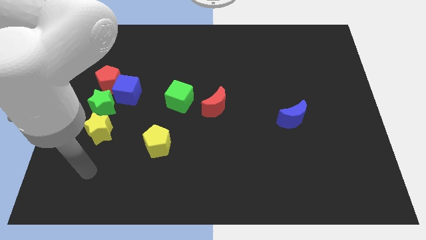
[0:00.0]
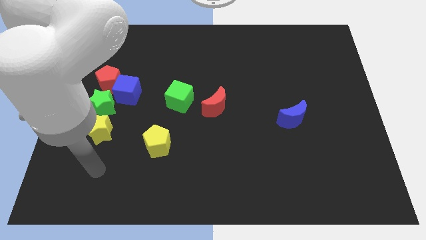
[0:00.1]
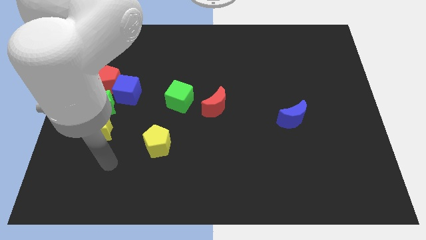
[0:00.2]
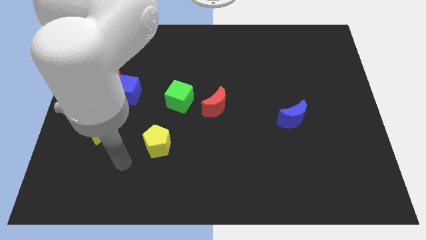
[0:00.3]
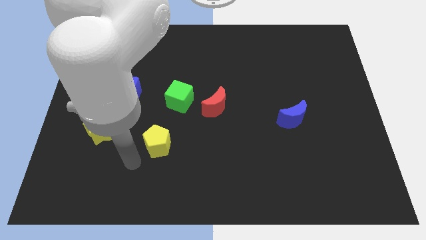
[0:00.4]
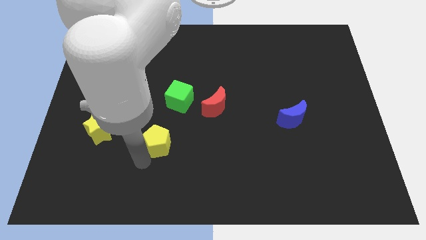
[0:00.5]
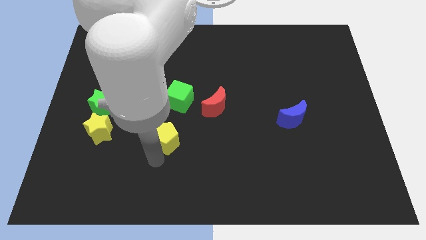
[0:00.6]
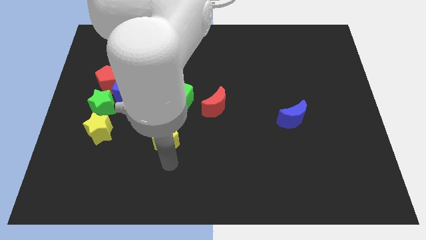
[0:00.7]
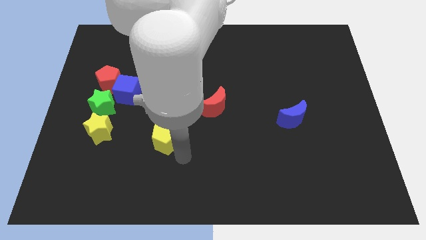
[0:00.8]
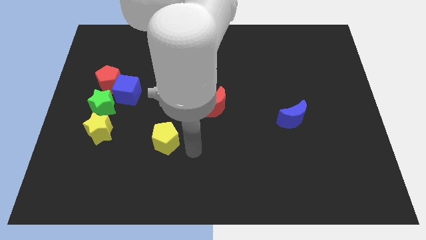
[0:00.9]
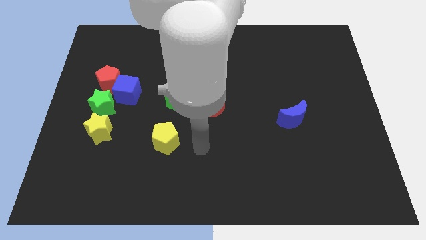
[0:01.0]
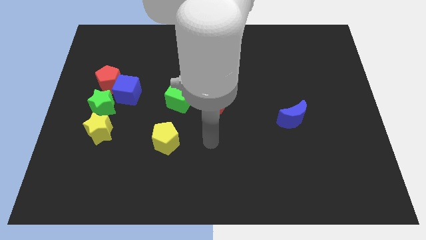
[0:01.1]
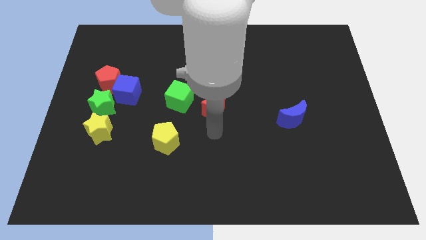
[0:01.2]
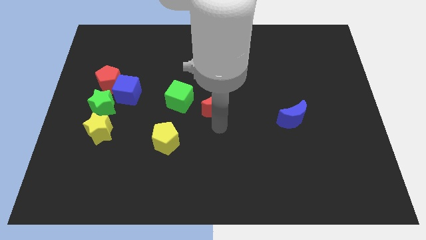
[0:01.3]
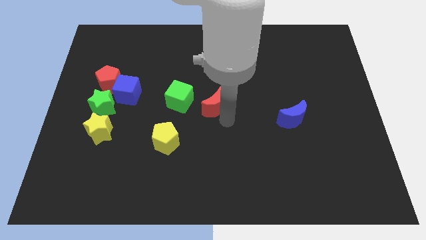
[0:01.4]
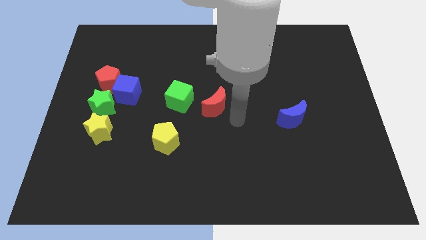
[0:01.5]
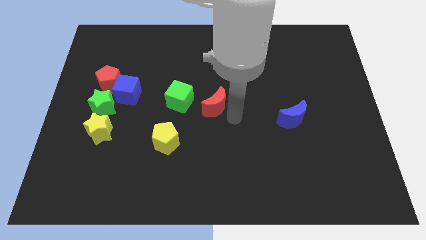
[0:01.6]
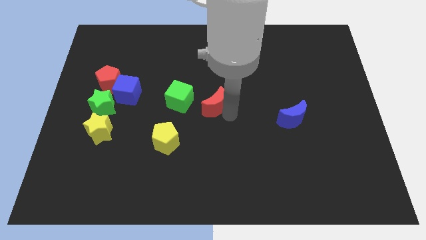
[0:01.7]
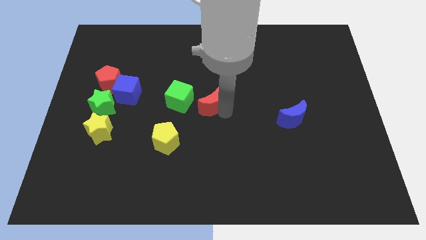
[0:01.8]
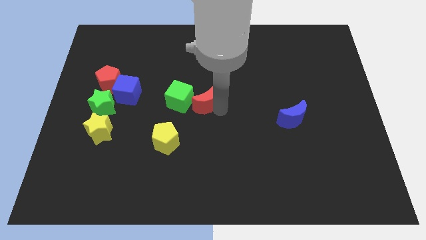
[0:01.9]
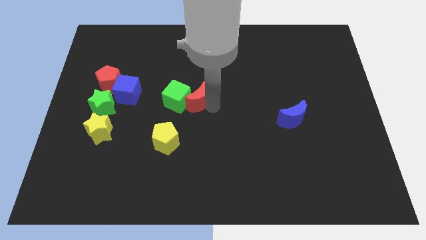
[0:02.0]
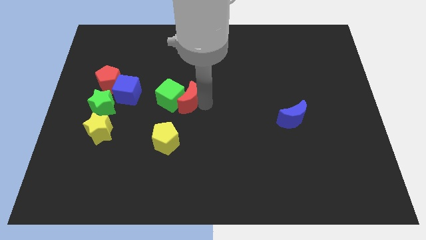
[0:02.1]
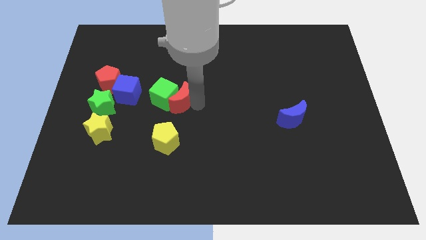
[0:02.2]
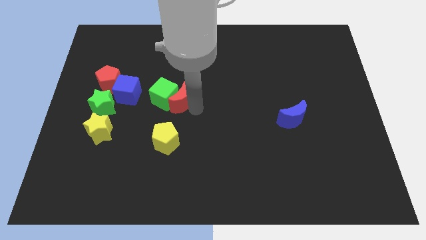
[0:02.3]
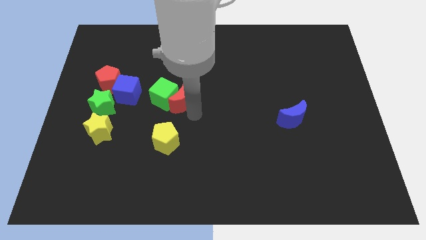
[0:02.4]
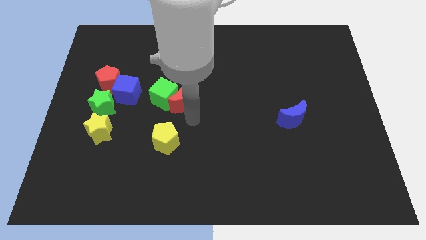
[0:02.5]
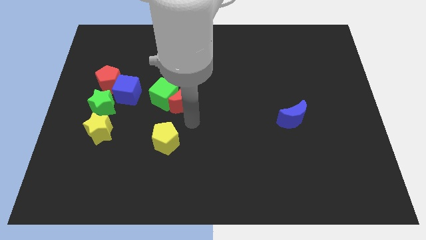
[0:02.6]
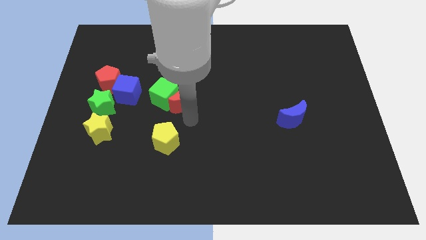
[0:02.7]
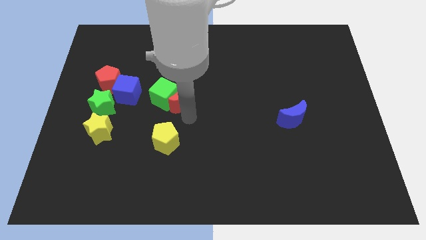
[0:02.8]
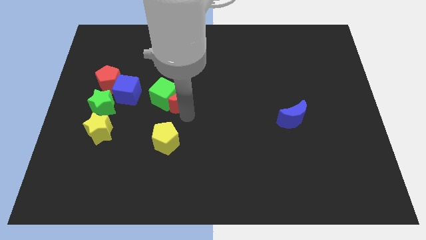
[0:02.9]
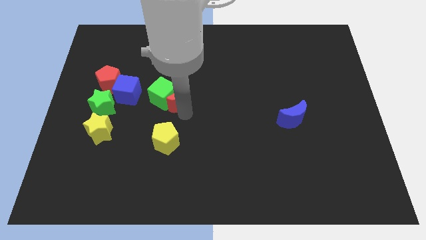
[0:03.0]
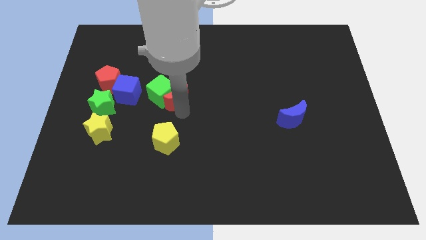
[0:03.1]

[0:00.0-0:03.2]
move the red moon slightly upwards and left diagonally

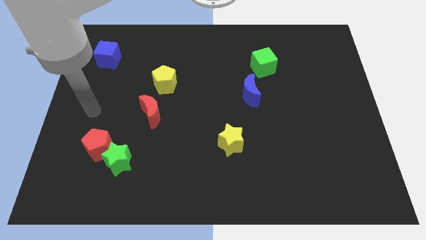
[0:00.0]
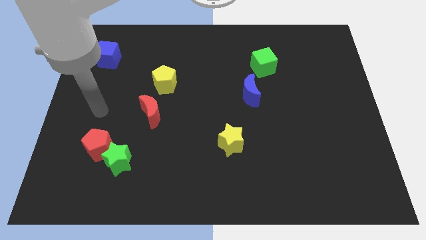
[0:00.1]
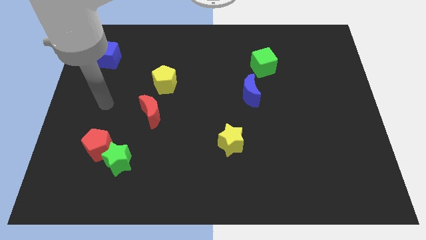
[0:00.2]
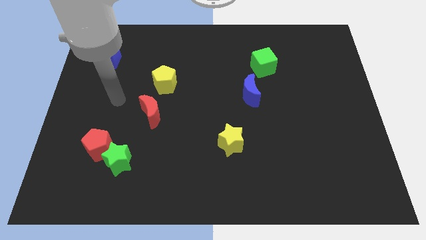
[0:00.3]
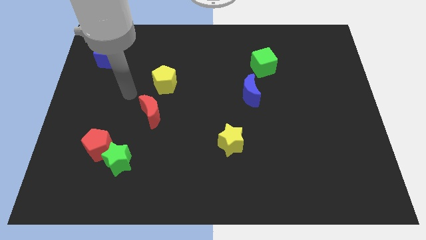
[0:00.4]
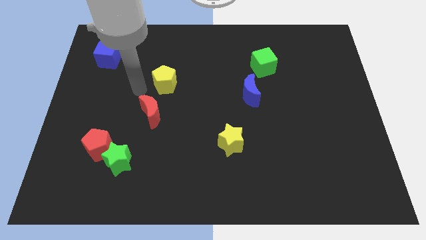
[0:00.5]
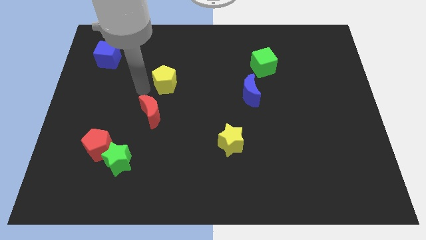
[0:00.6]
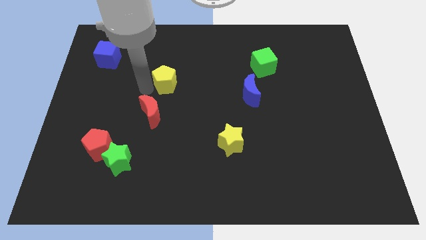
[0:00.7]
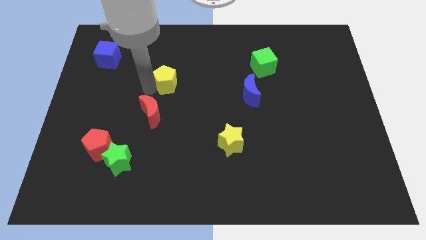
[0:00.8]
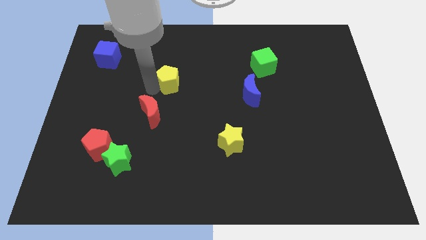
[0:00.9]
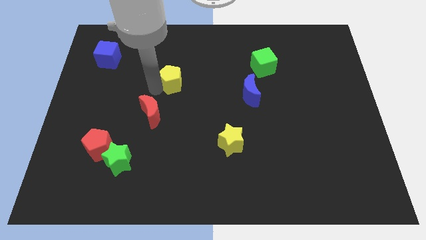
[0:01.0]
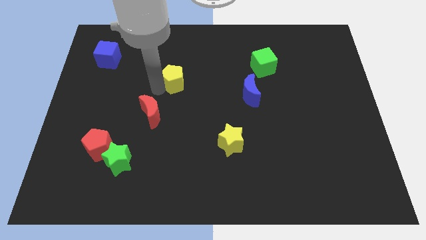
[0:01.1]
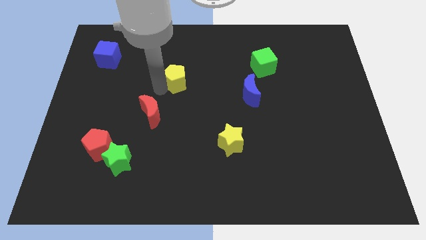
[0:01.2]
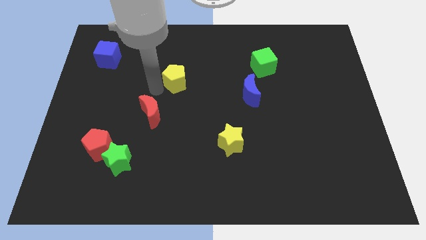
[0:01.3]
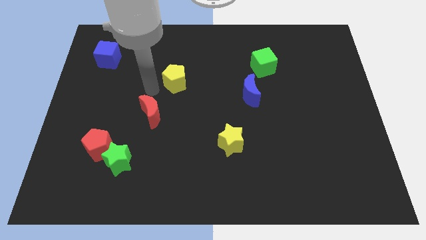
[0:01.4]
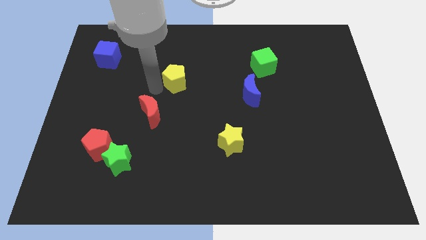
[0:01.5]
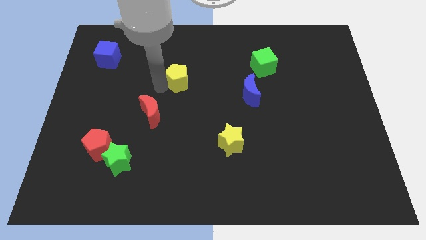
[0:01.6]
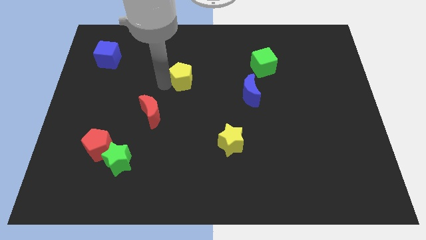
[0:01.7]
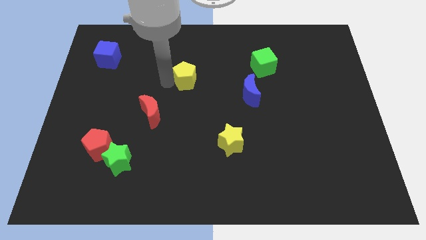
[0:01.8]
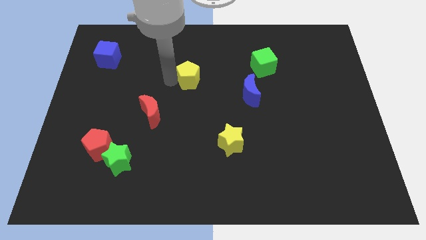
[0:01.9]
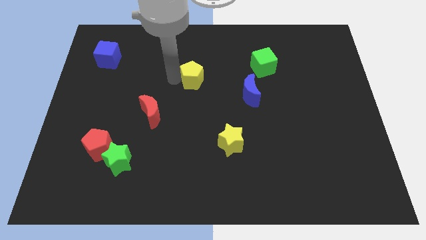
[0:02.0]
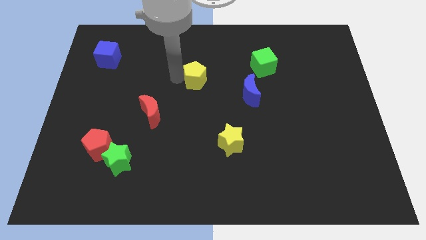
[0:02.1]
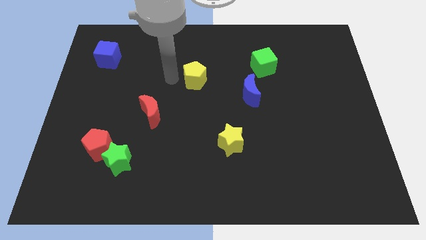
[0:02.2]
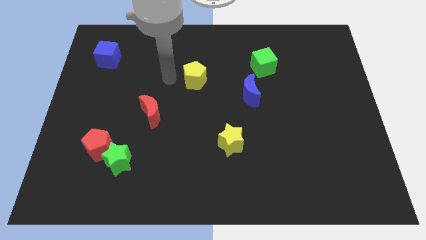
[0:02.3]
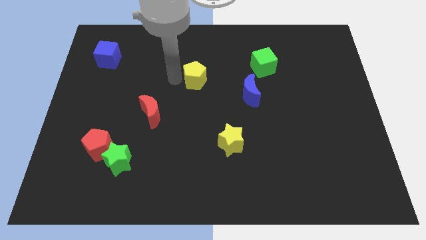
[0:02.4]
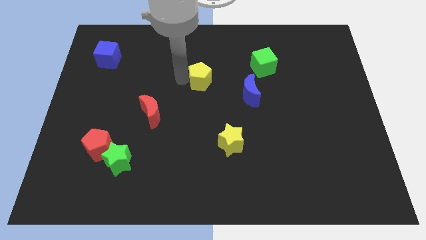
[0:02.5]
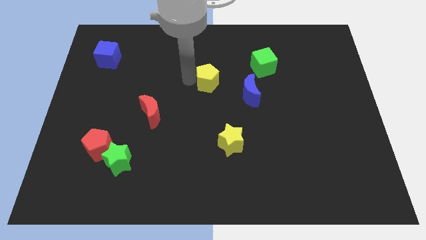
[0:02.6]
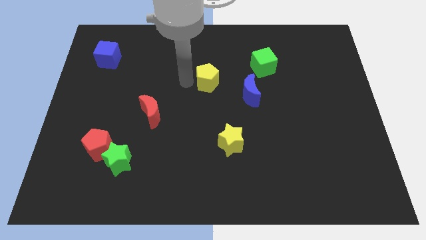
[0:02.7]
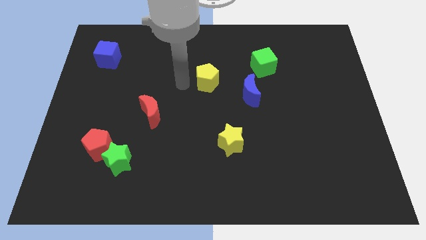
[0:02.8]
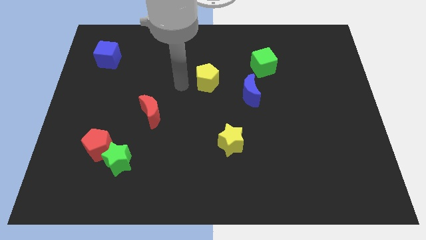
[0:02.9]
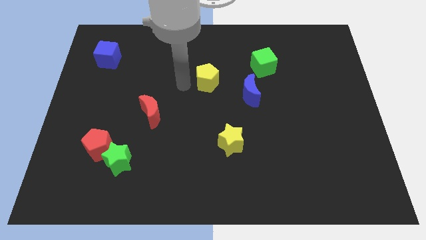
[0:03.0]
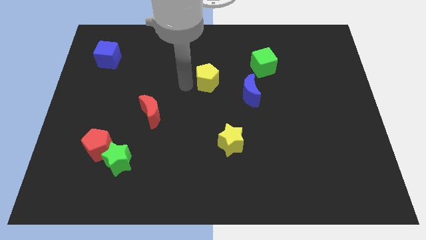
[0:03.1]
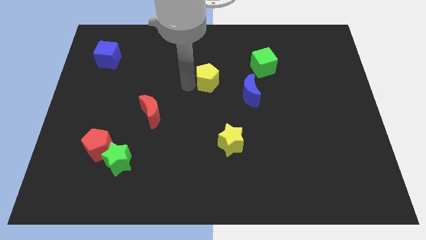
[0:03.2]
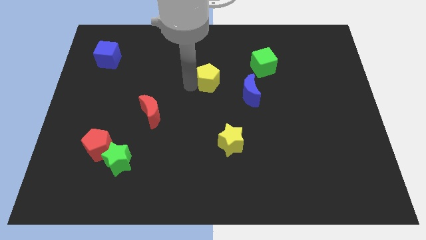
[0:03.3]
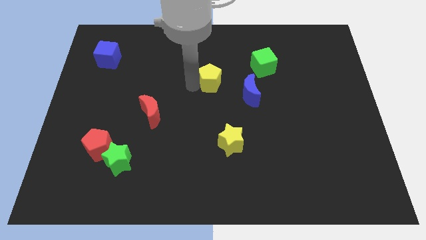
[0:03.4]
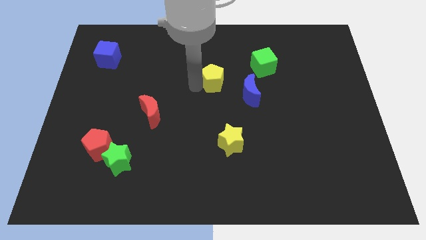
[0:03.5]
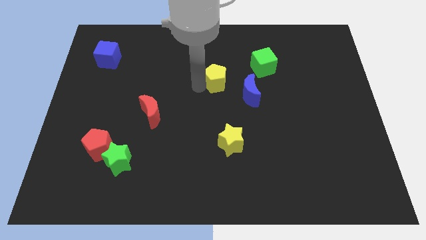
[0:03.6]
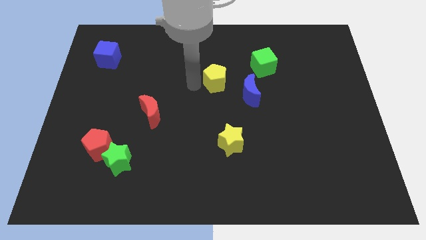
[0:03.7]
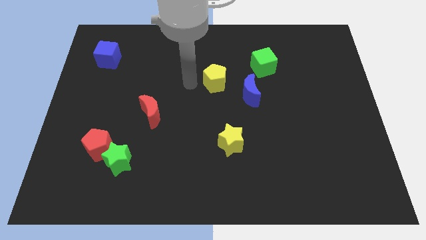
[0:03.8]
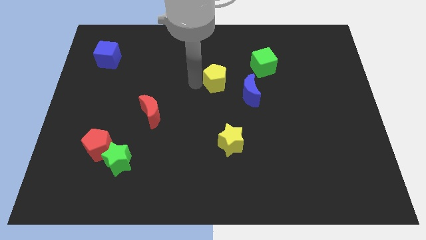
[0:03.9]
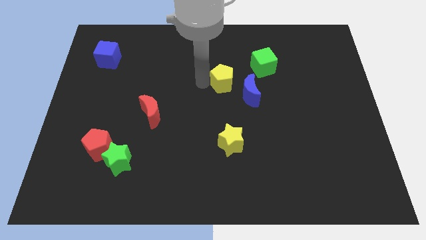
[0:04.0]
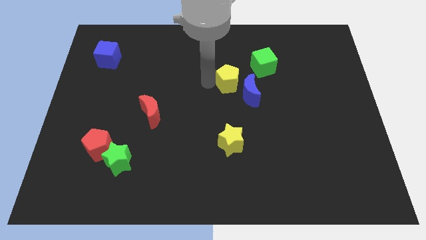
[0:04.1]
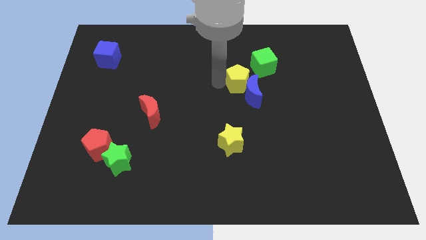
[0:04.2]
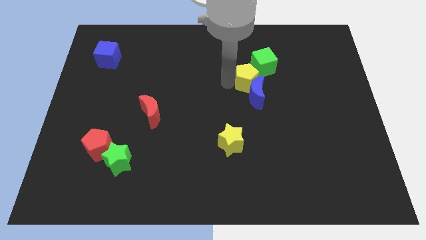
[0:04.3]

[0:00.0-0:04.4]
slide the yellow pentagon right

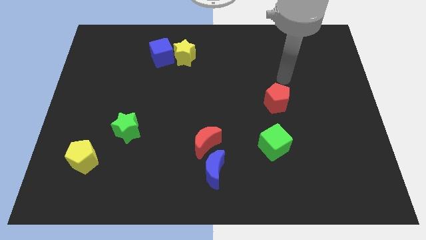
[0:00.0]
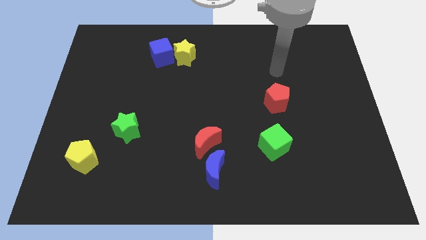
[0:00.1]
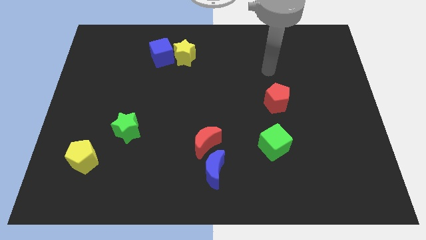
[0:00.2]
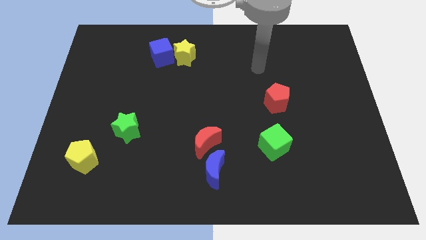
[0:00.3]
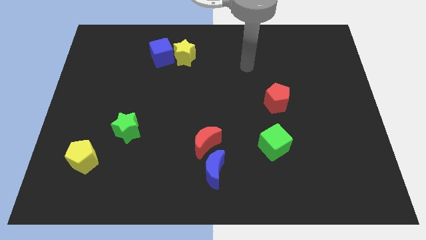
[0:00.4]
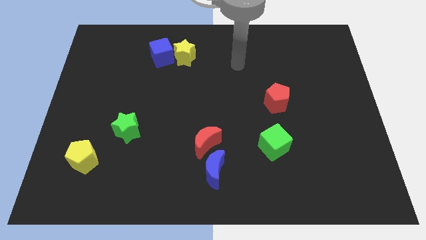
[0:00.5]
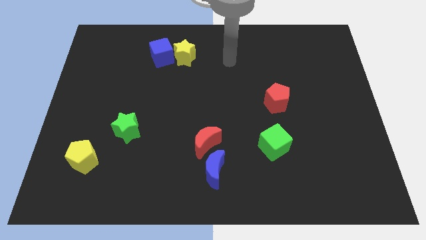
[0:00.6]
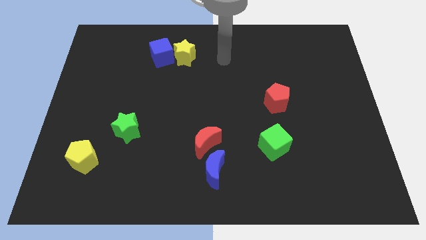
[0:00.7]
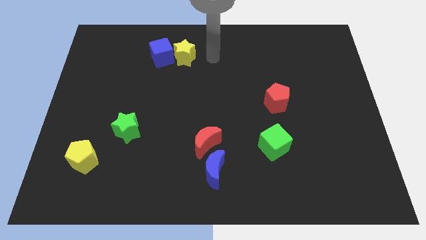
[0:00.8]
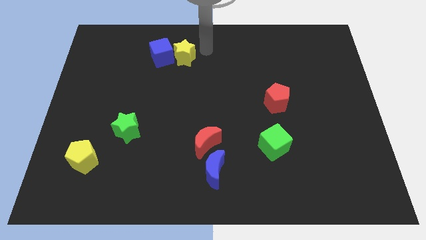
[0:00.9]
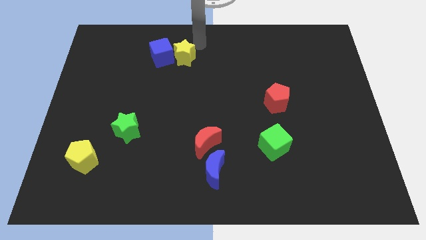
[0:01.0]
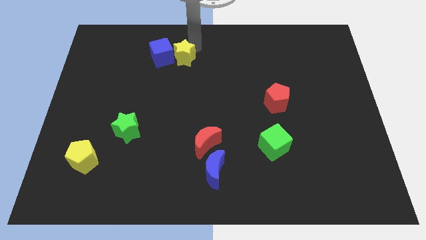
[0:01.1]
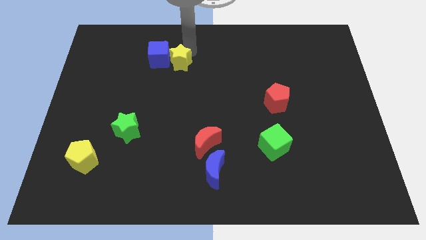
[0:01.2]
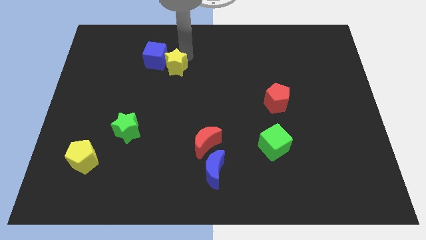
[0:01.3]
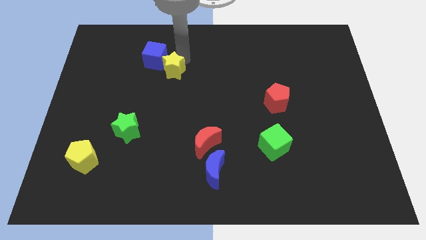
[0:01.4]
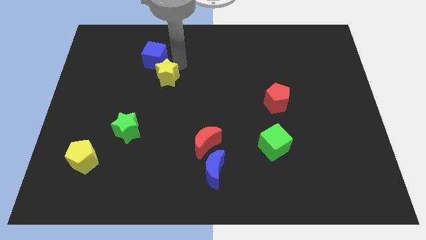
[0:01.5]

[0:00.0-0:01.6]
move the yellow star somewhat diagonally down and to the left
